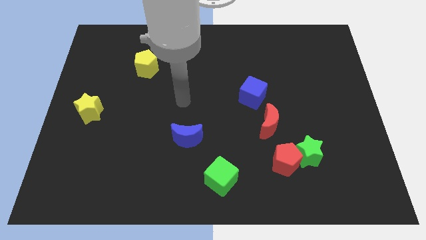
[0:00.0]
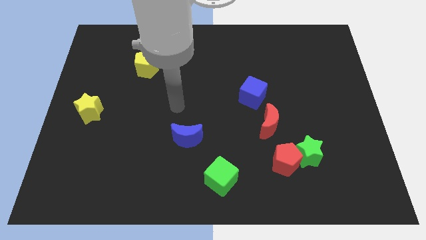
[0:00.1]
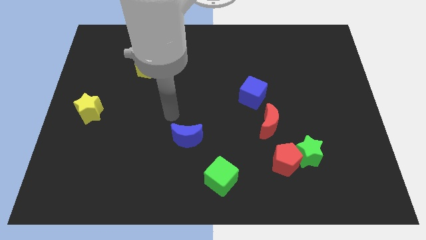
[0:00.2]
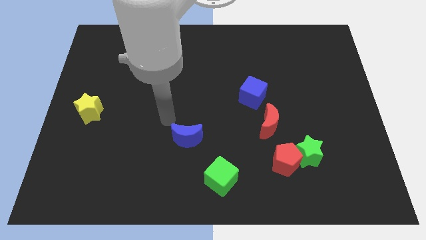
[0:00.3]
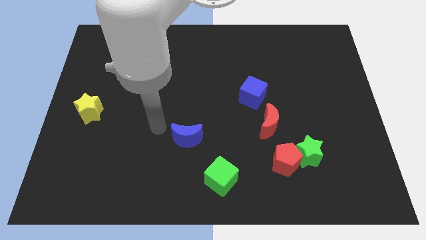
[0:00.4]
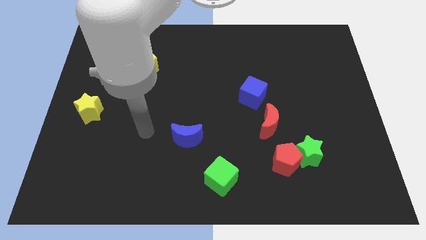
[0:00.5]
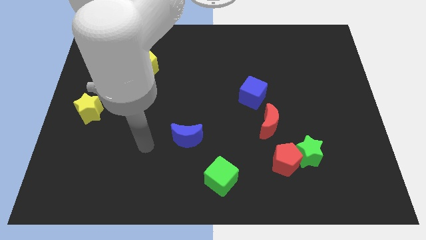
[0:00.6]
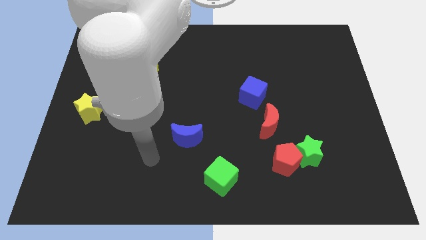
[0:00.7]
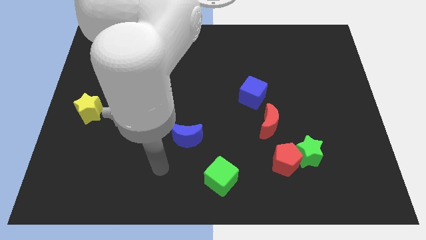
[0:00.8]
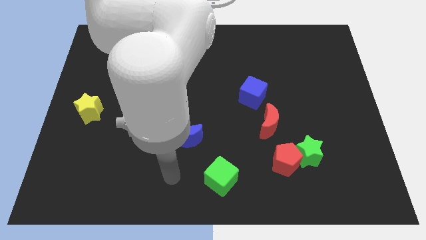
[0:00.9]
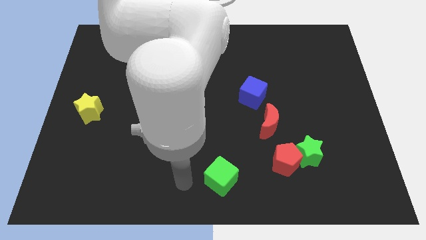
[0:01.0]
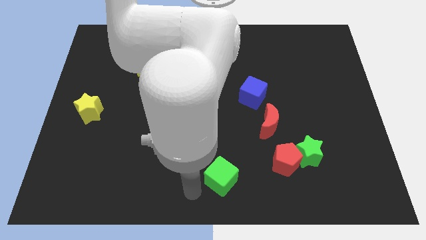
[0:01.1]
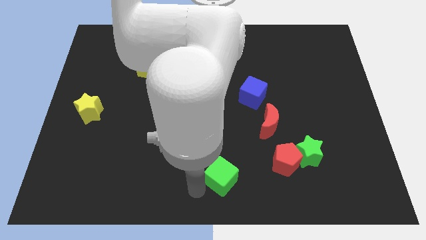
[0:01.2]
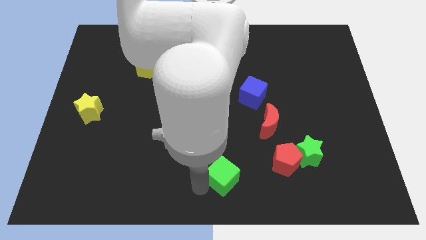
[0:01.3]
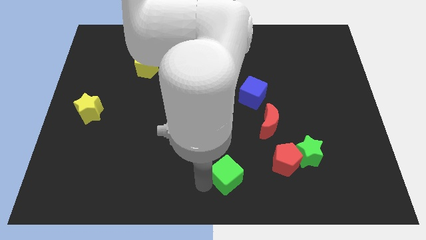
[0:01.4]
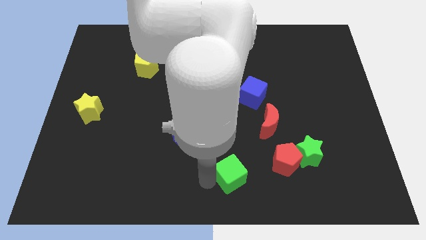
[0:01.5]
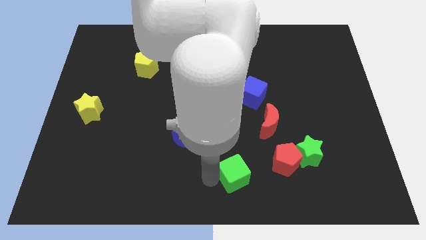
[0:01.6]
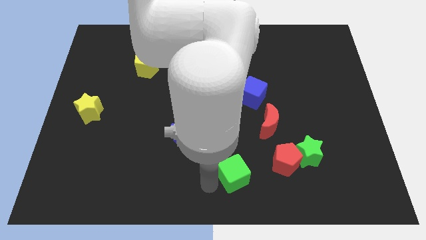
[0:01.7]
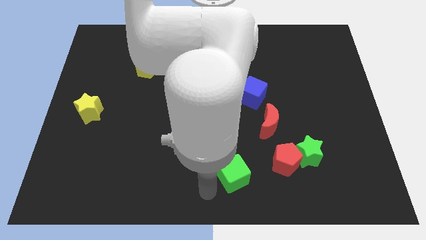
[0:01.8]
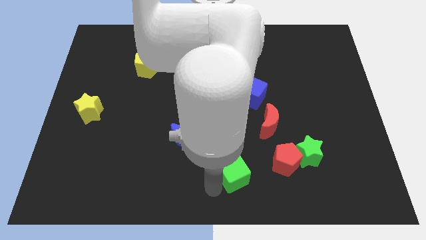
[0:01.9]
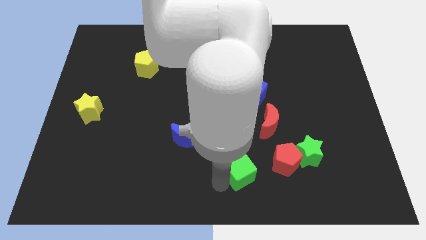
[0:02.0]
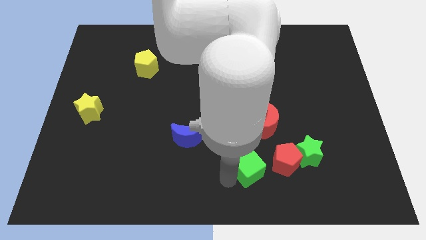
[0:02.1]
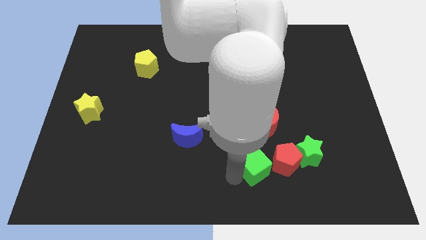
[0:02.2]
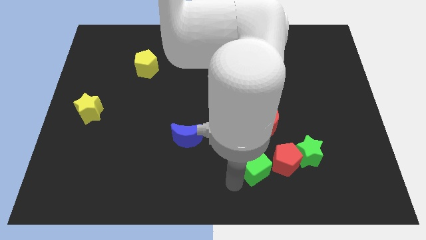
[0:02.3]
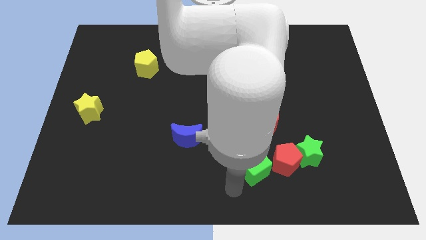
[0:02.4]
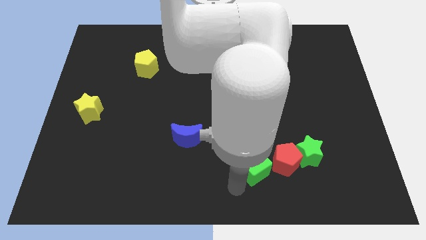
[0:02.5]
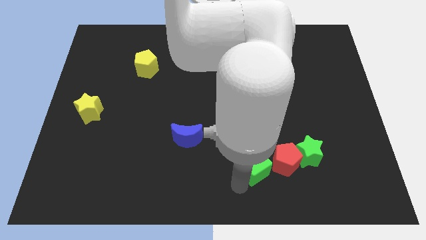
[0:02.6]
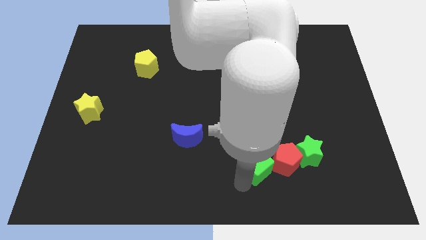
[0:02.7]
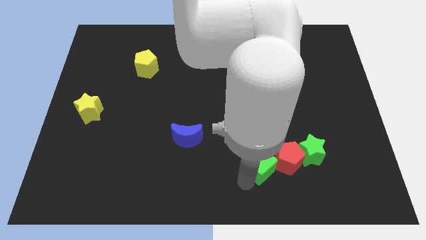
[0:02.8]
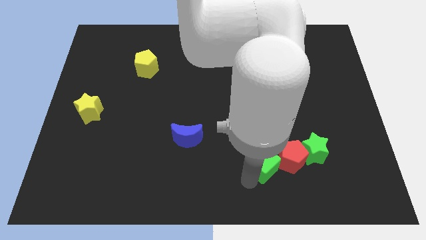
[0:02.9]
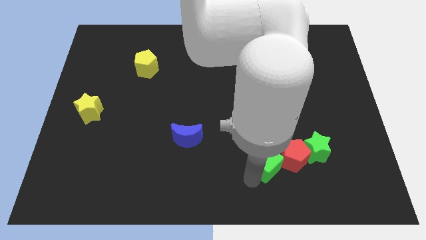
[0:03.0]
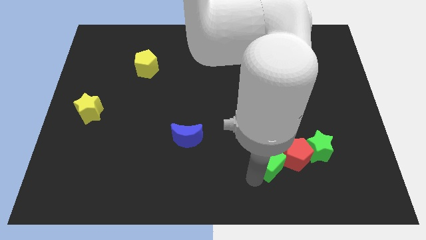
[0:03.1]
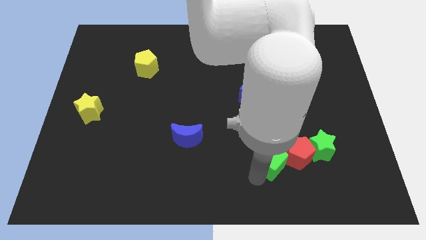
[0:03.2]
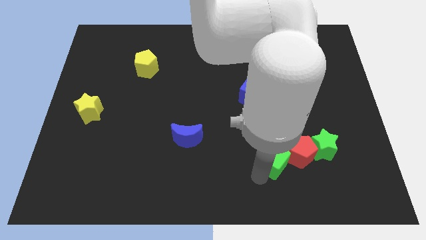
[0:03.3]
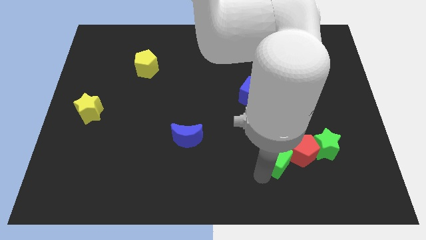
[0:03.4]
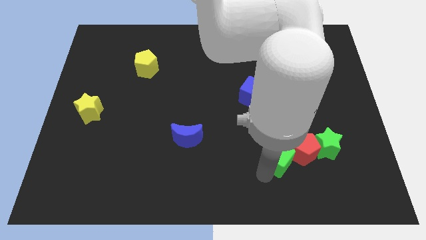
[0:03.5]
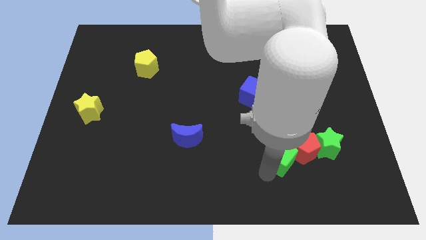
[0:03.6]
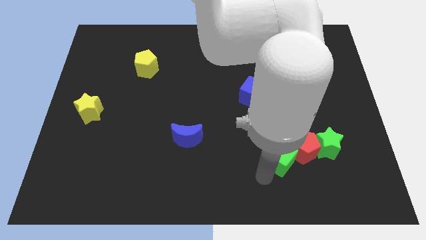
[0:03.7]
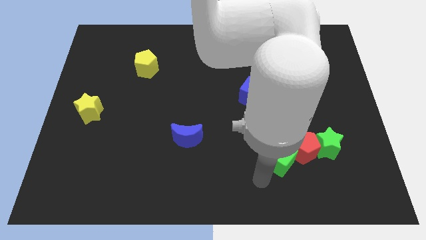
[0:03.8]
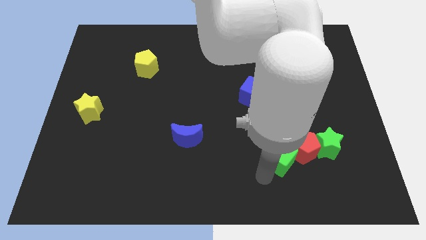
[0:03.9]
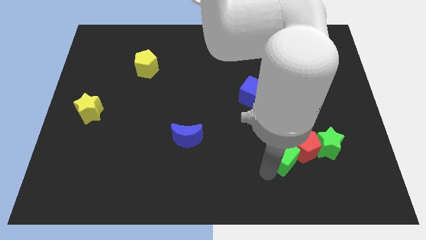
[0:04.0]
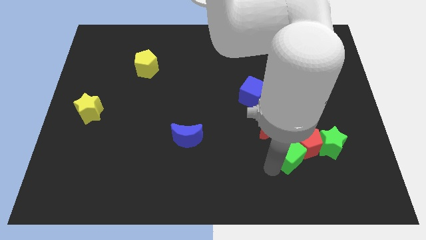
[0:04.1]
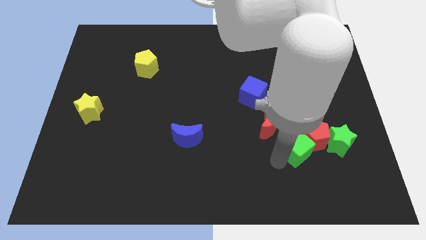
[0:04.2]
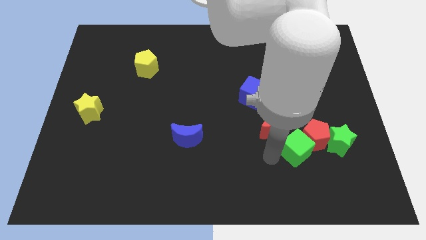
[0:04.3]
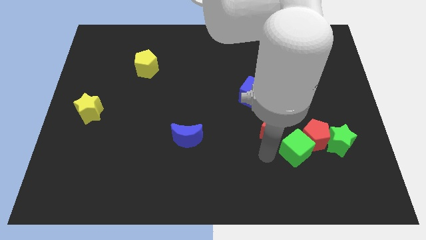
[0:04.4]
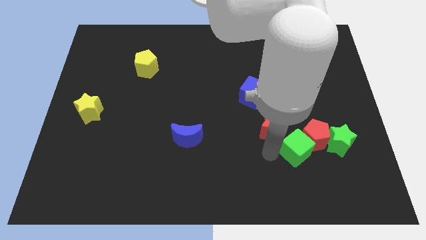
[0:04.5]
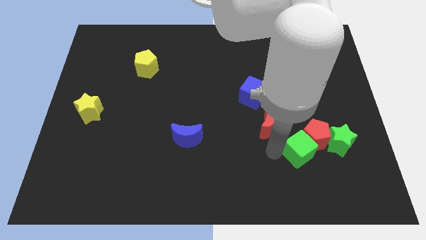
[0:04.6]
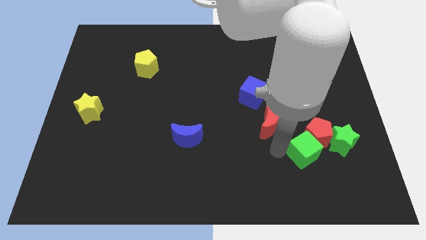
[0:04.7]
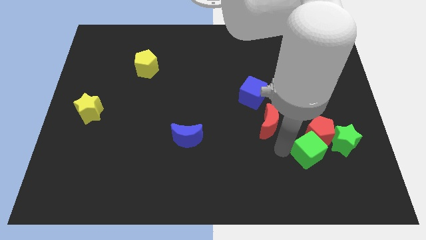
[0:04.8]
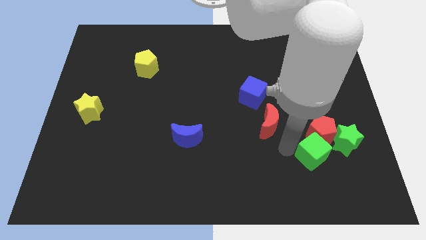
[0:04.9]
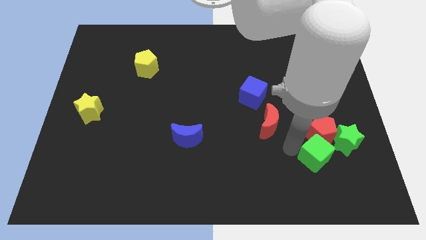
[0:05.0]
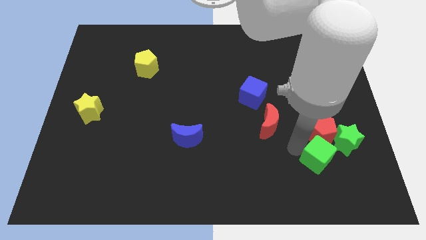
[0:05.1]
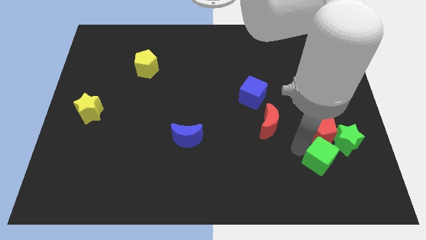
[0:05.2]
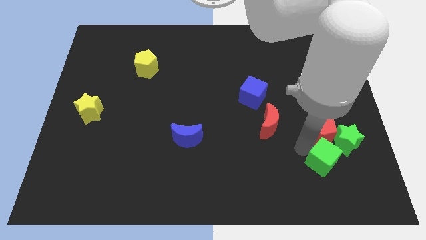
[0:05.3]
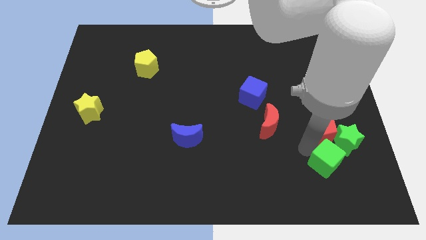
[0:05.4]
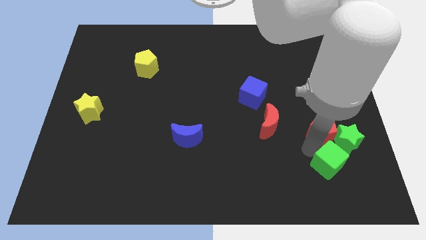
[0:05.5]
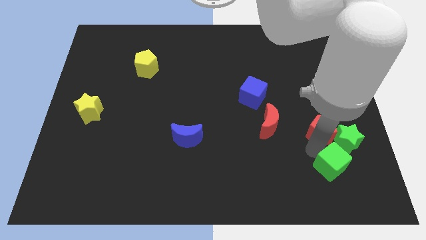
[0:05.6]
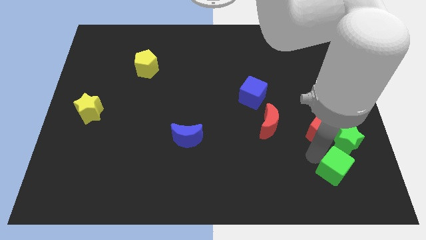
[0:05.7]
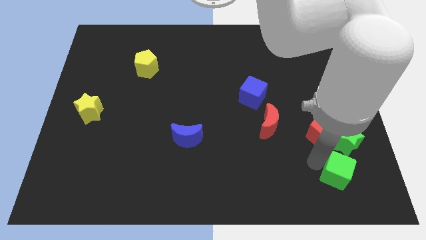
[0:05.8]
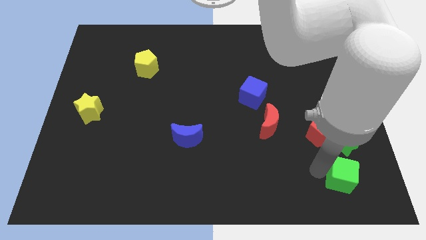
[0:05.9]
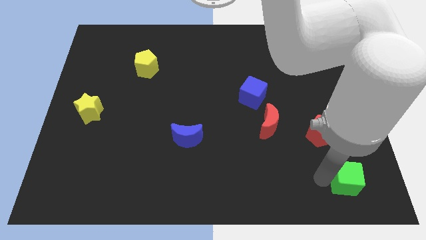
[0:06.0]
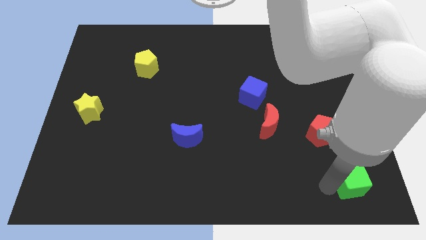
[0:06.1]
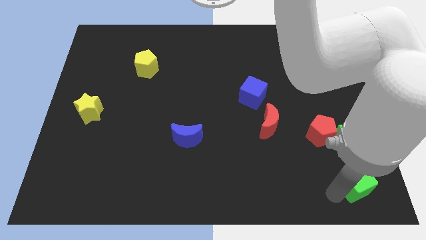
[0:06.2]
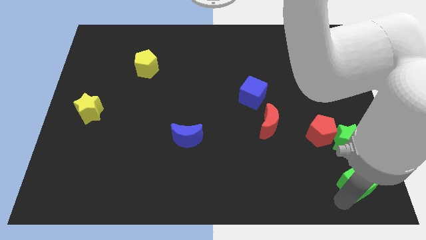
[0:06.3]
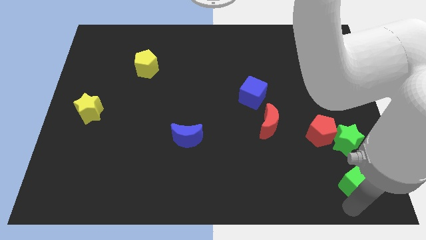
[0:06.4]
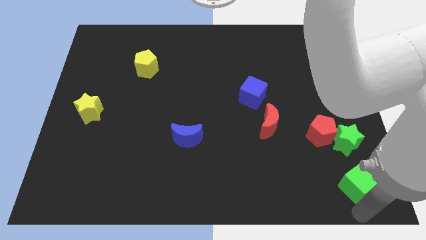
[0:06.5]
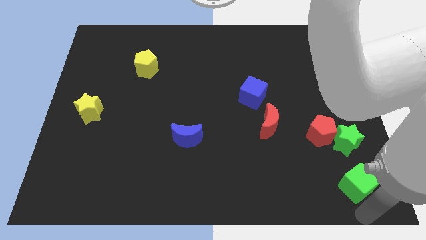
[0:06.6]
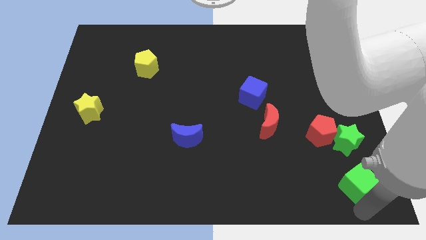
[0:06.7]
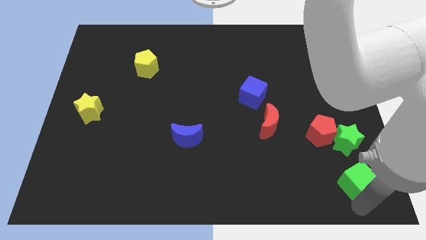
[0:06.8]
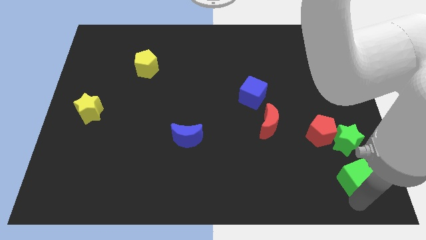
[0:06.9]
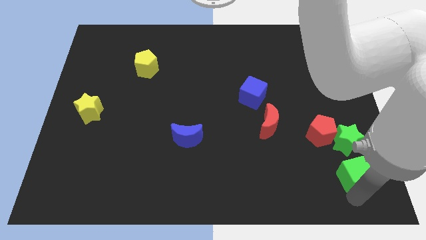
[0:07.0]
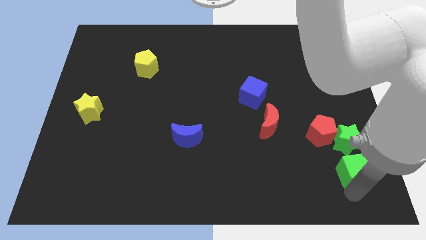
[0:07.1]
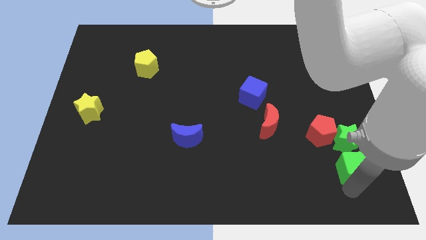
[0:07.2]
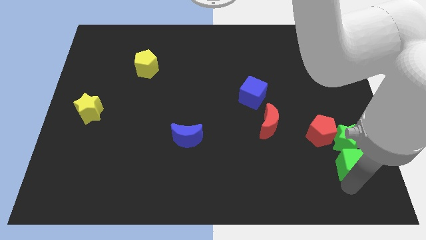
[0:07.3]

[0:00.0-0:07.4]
push the green cube close to the green star
